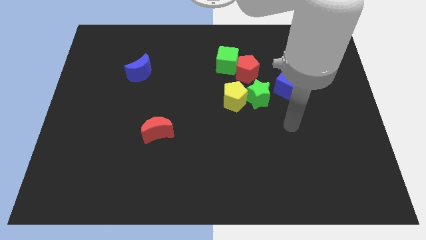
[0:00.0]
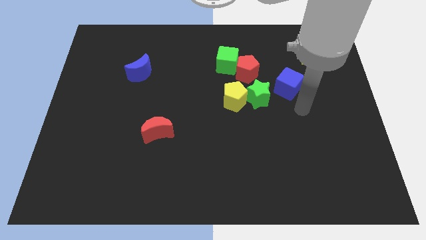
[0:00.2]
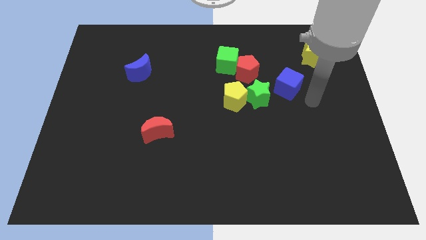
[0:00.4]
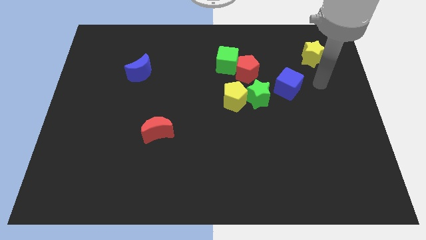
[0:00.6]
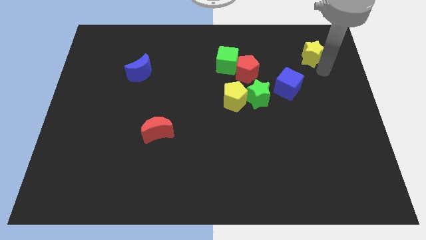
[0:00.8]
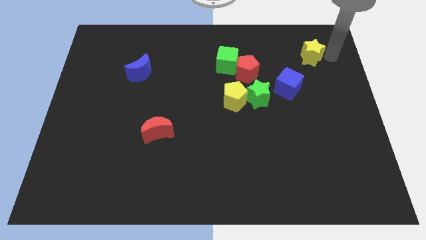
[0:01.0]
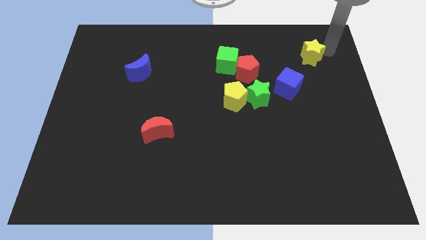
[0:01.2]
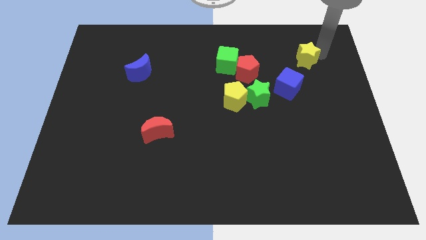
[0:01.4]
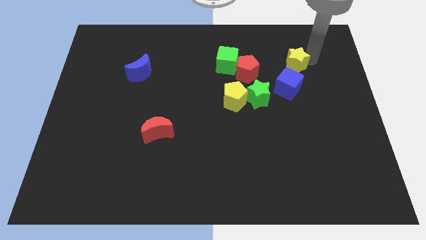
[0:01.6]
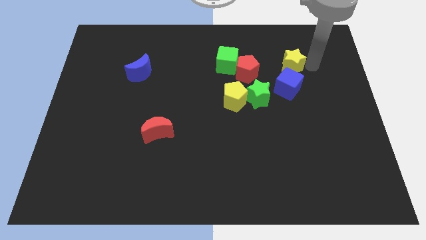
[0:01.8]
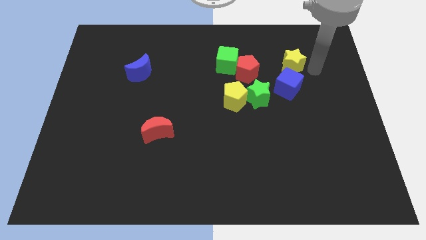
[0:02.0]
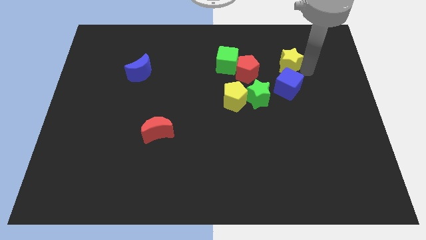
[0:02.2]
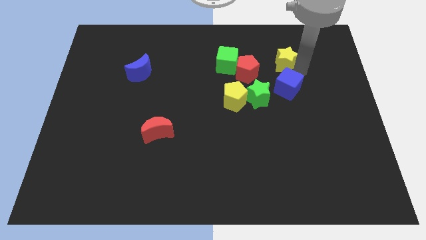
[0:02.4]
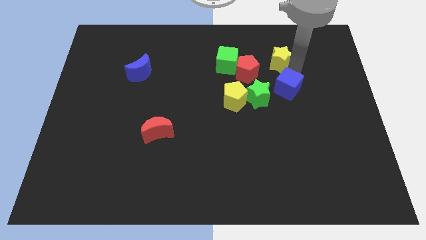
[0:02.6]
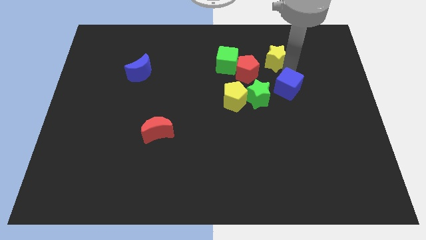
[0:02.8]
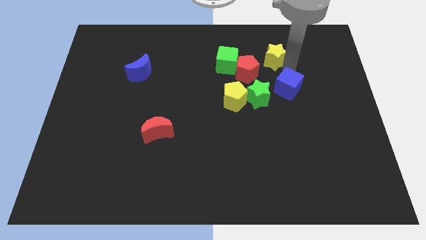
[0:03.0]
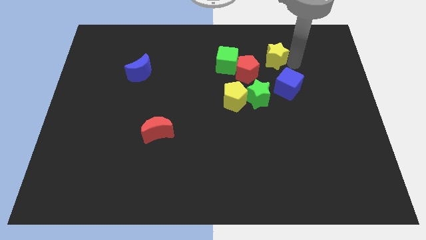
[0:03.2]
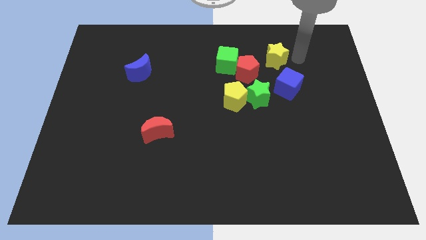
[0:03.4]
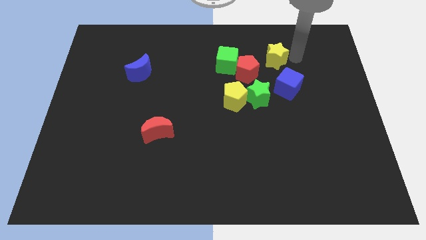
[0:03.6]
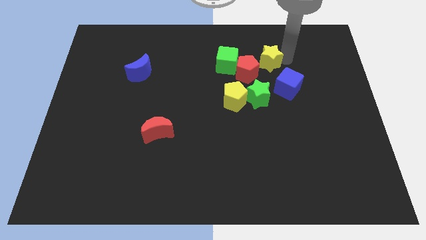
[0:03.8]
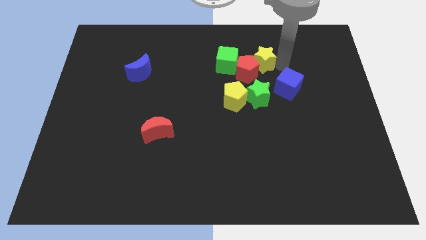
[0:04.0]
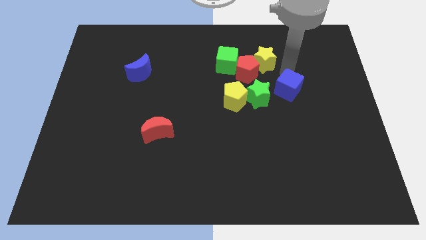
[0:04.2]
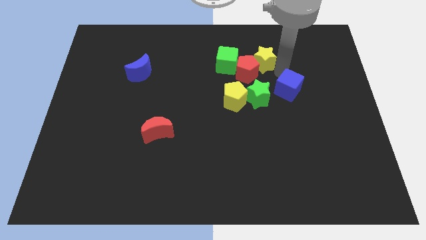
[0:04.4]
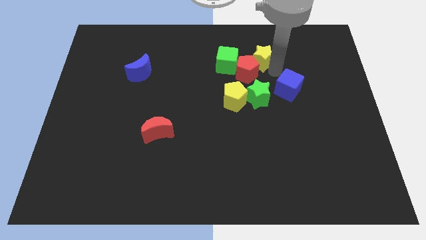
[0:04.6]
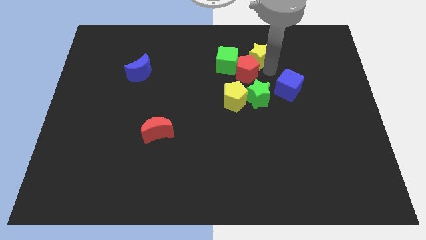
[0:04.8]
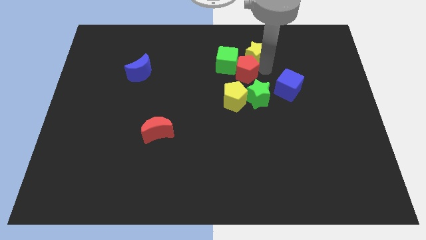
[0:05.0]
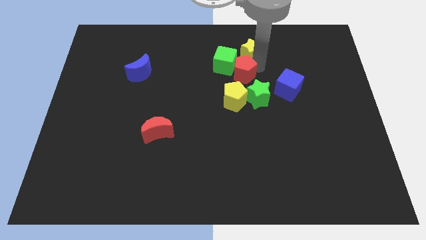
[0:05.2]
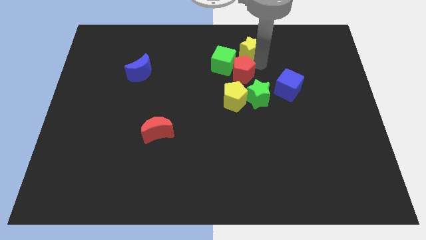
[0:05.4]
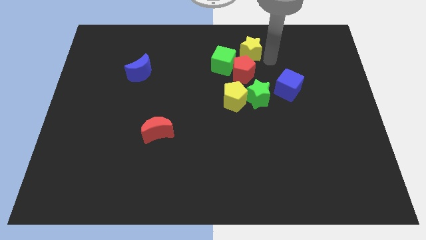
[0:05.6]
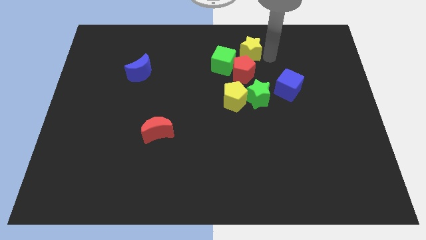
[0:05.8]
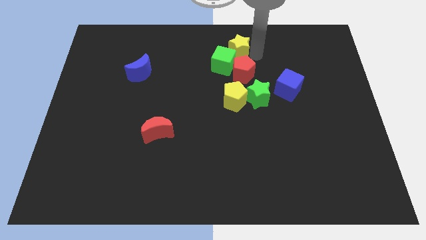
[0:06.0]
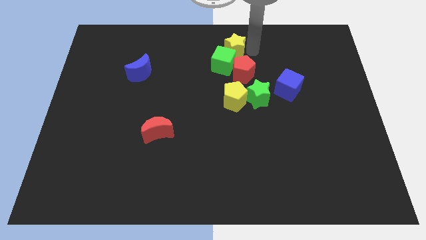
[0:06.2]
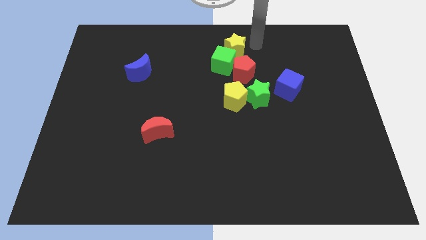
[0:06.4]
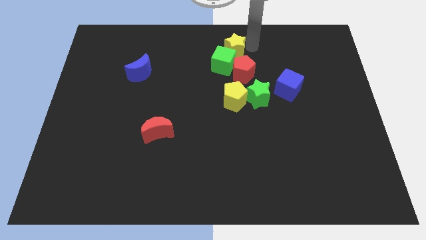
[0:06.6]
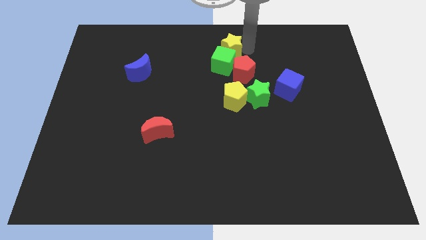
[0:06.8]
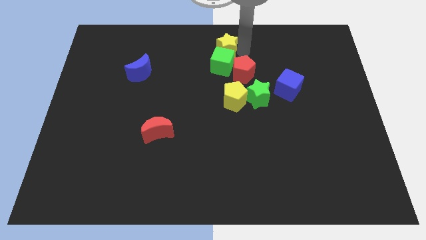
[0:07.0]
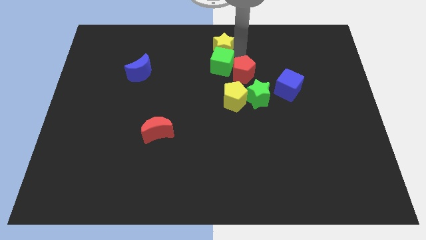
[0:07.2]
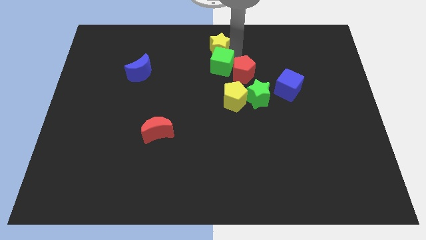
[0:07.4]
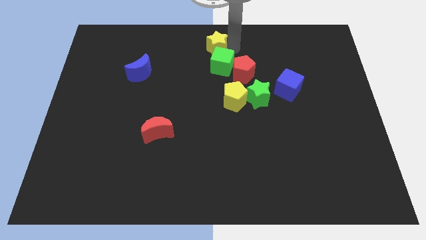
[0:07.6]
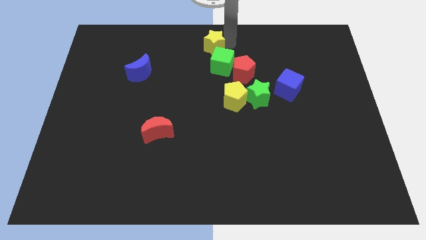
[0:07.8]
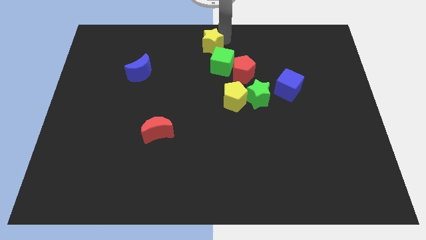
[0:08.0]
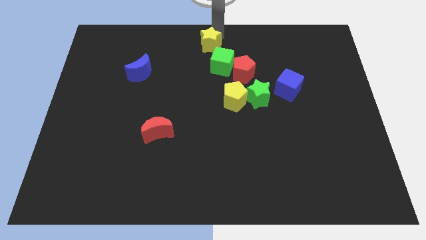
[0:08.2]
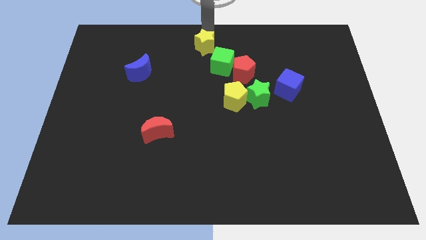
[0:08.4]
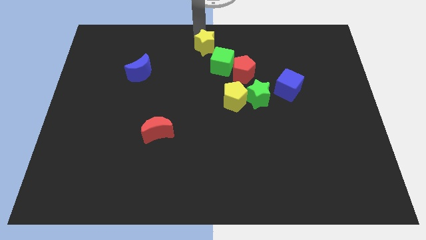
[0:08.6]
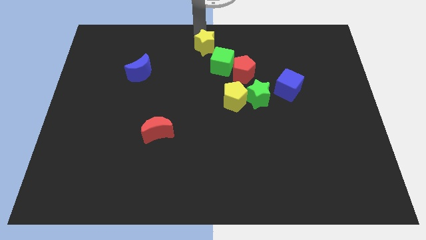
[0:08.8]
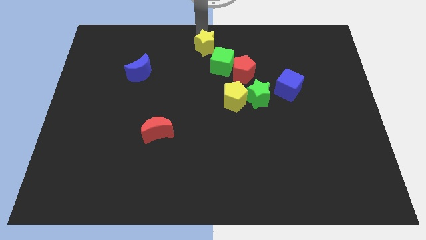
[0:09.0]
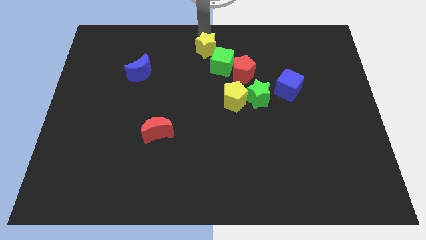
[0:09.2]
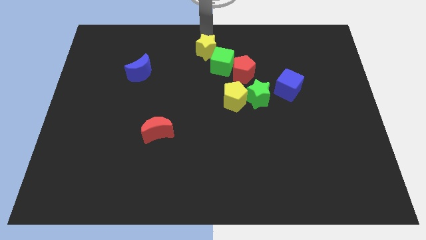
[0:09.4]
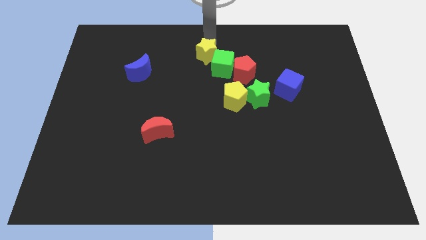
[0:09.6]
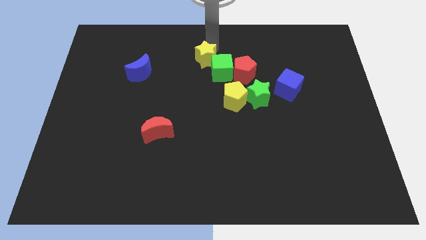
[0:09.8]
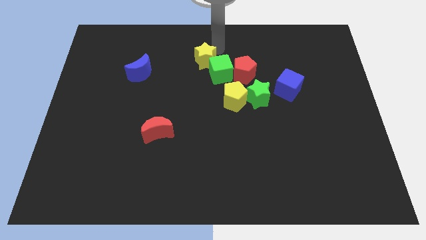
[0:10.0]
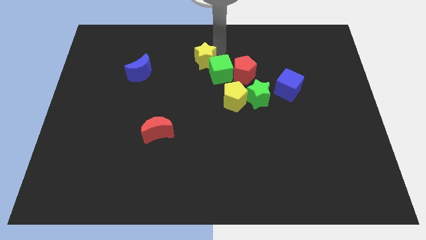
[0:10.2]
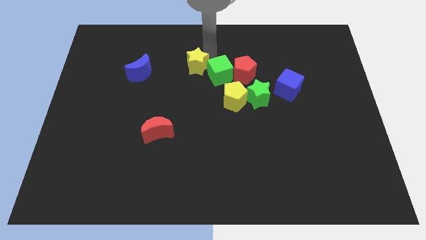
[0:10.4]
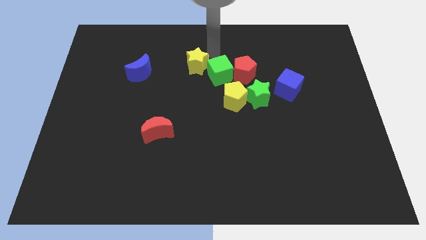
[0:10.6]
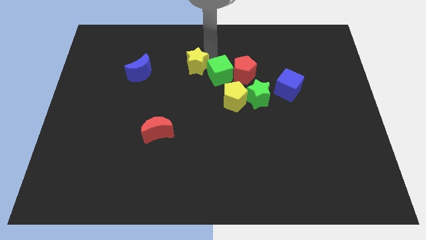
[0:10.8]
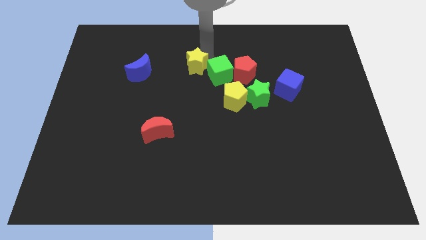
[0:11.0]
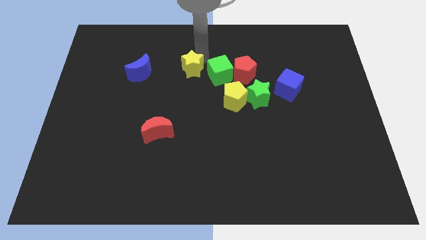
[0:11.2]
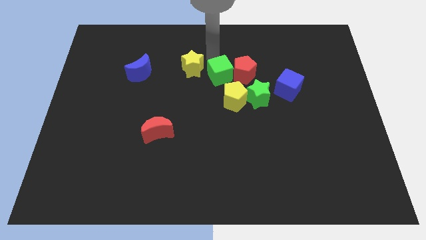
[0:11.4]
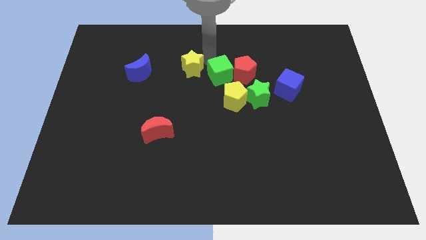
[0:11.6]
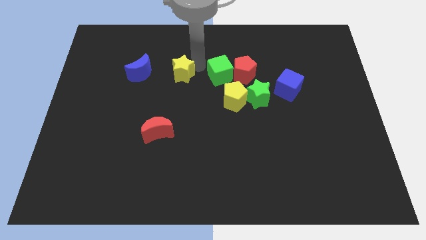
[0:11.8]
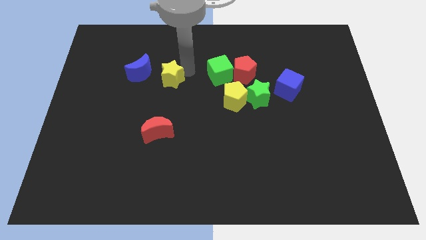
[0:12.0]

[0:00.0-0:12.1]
move the yellow star diagonally down and to the right of the blue moon
